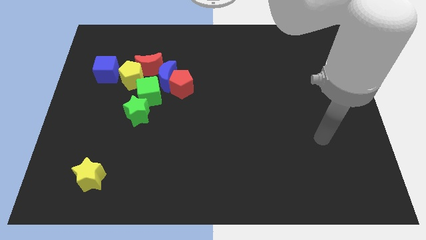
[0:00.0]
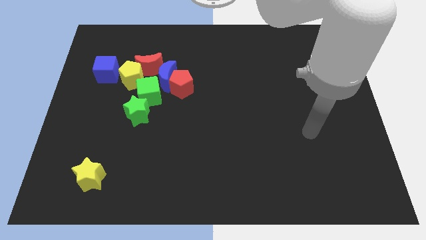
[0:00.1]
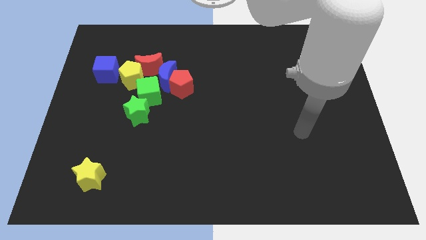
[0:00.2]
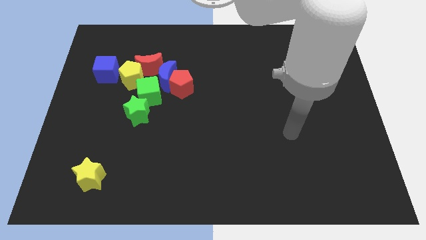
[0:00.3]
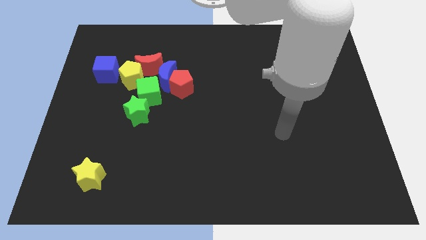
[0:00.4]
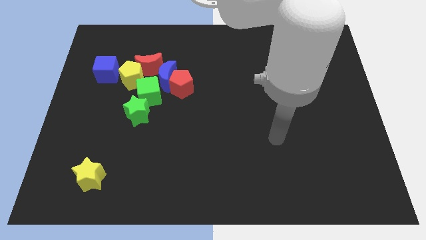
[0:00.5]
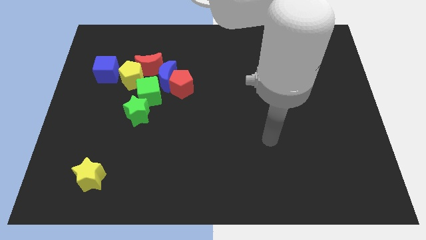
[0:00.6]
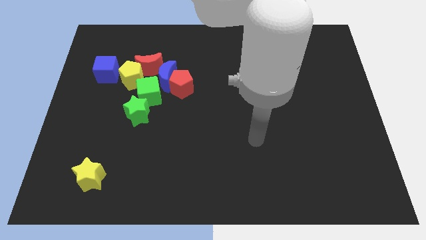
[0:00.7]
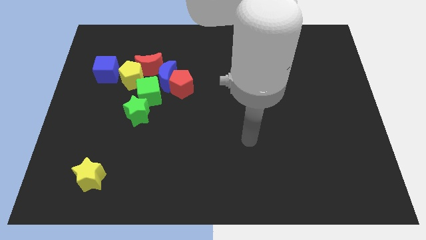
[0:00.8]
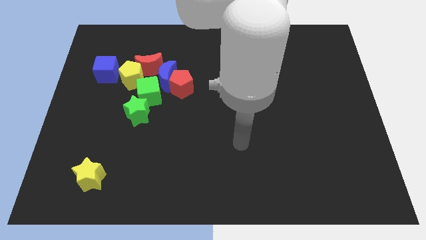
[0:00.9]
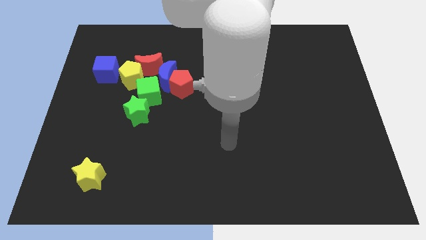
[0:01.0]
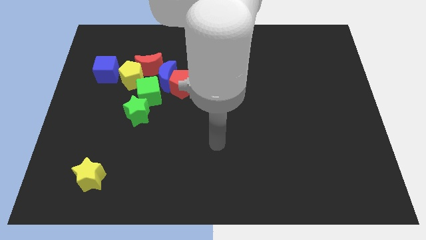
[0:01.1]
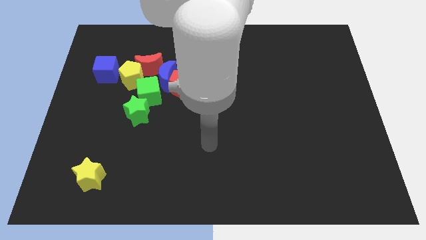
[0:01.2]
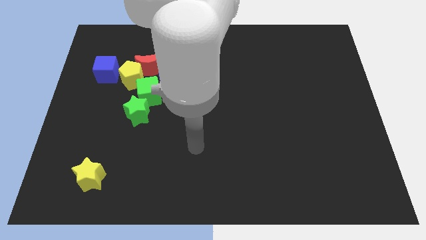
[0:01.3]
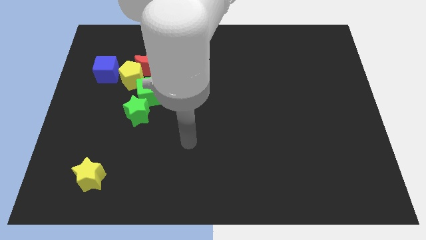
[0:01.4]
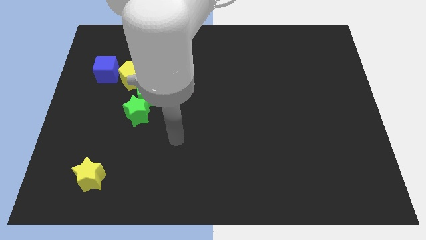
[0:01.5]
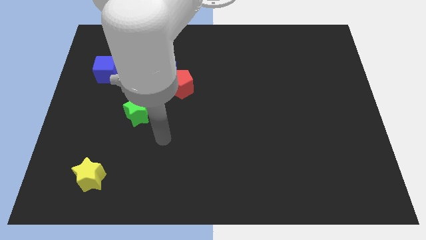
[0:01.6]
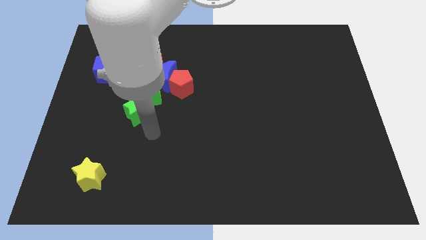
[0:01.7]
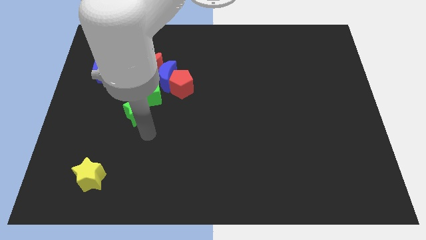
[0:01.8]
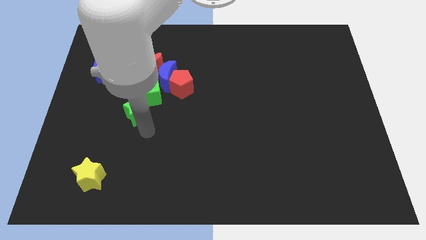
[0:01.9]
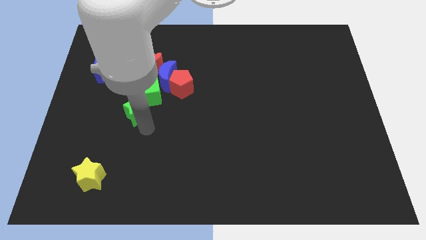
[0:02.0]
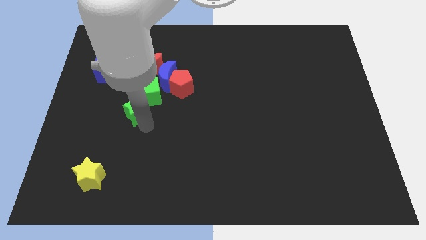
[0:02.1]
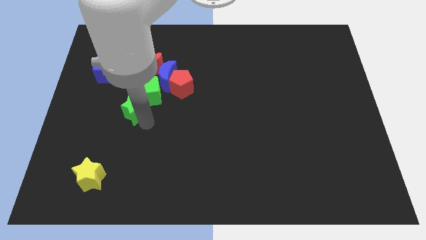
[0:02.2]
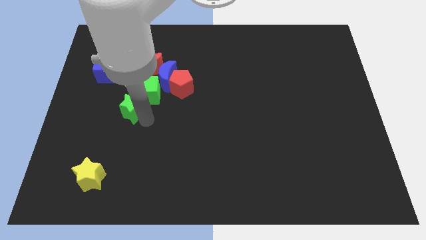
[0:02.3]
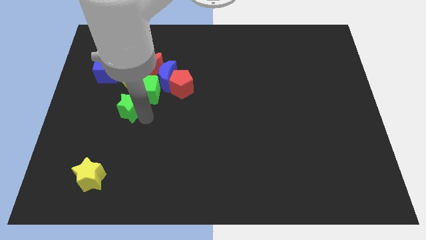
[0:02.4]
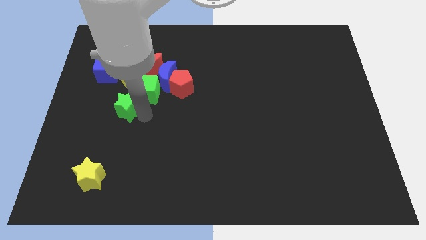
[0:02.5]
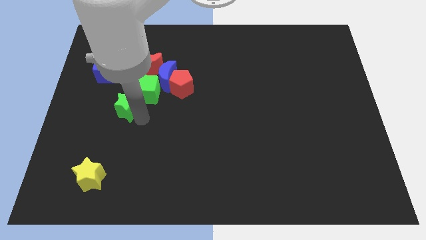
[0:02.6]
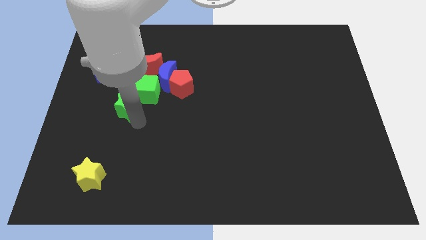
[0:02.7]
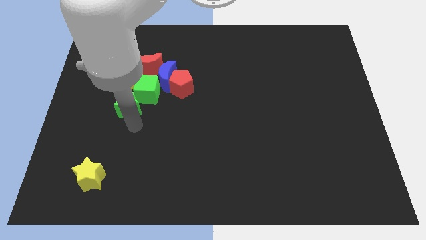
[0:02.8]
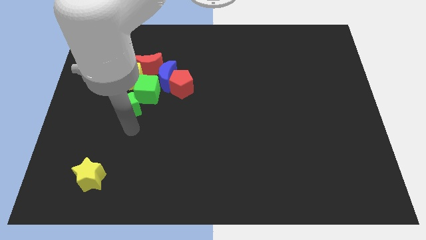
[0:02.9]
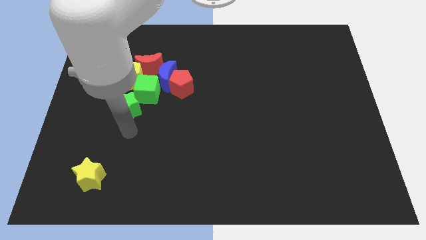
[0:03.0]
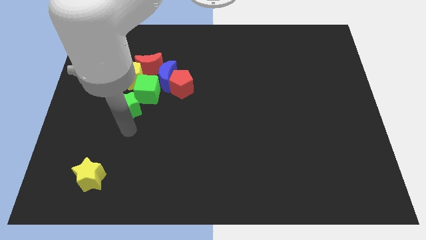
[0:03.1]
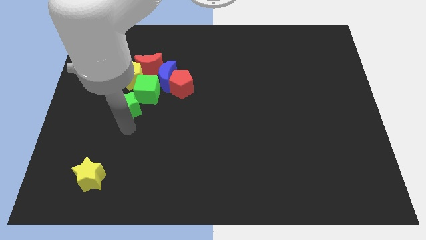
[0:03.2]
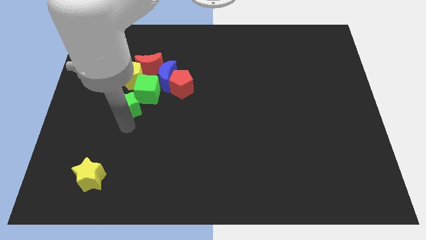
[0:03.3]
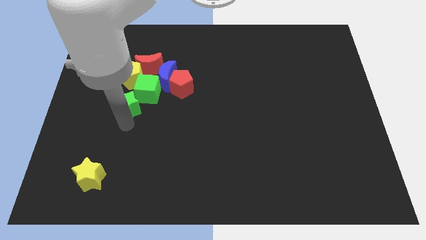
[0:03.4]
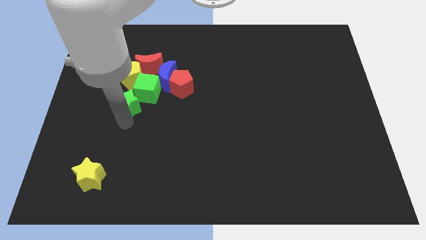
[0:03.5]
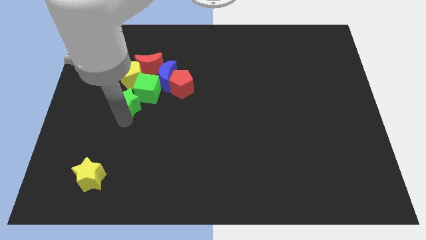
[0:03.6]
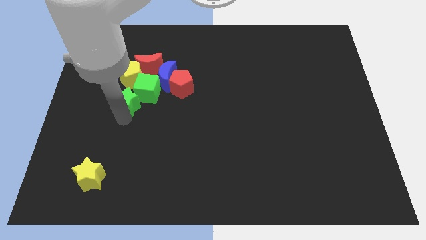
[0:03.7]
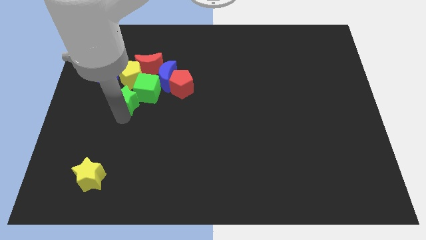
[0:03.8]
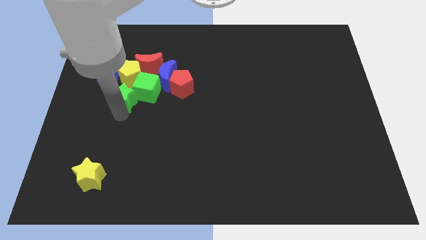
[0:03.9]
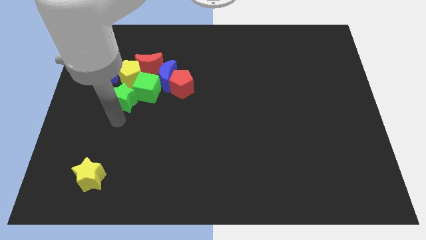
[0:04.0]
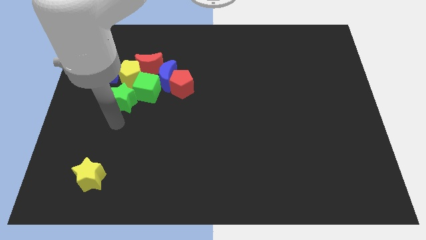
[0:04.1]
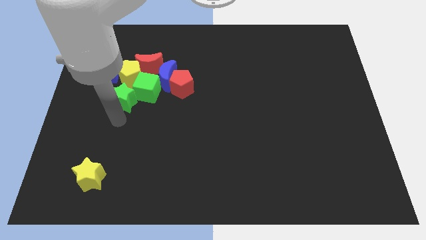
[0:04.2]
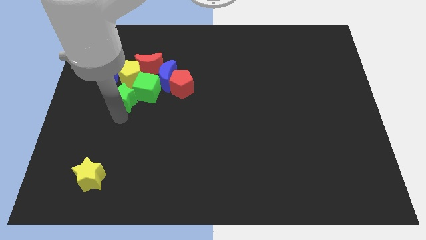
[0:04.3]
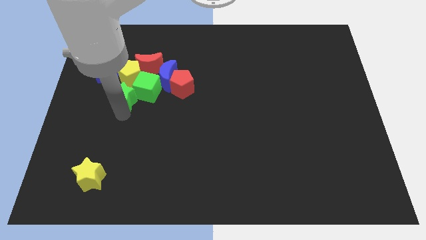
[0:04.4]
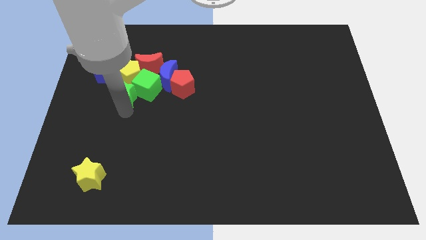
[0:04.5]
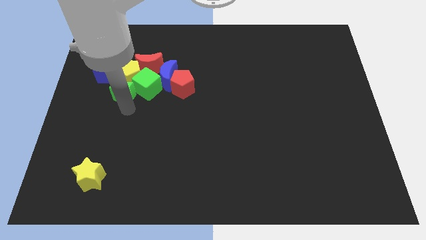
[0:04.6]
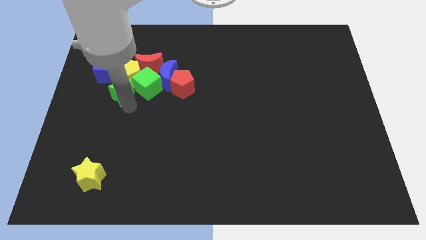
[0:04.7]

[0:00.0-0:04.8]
move the green star next to the yellow pentagon

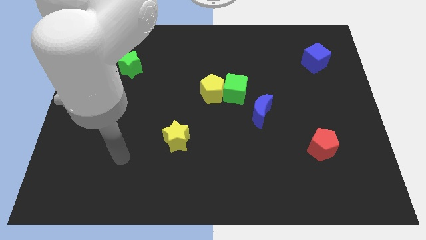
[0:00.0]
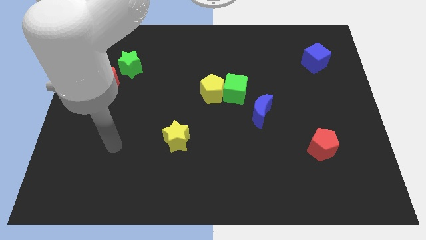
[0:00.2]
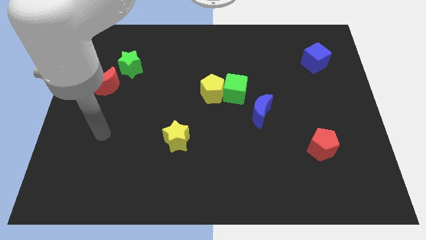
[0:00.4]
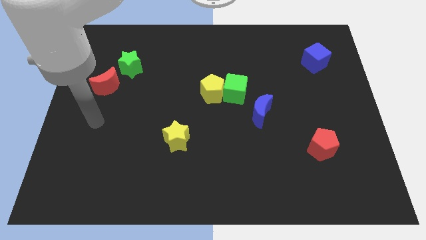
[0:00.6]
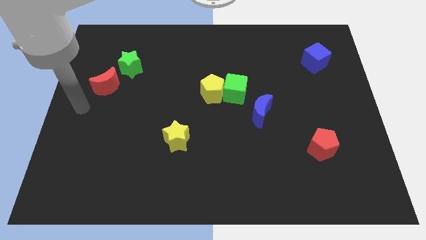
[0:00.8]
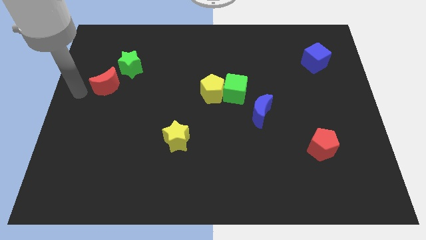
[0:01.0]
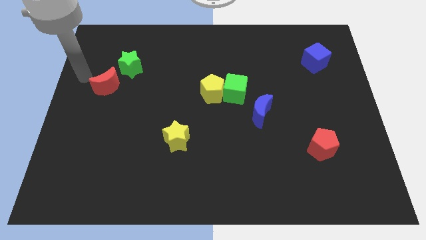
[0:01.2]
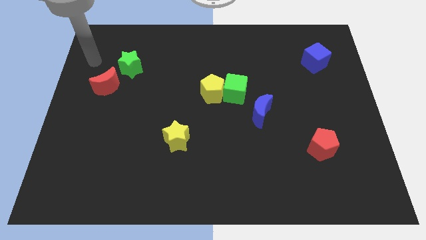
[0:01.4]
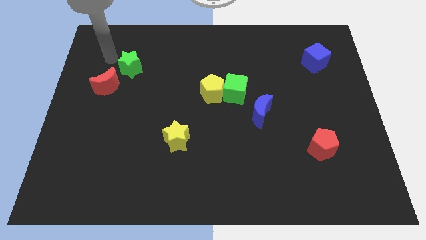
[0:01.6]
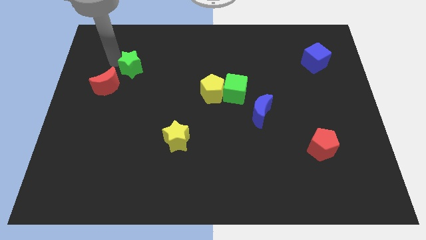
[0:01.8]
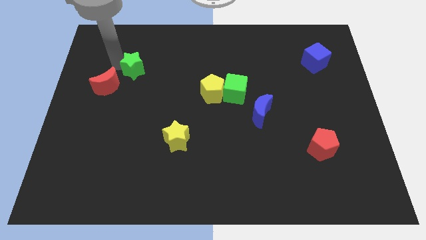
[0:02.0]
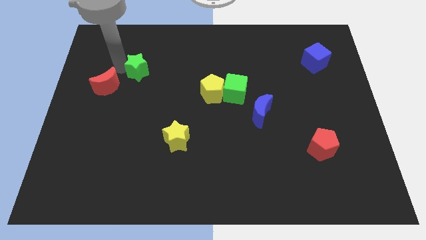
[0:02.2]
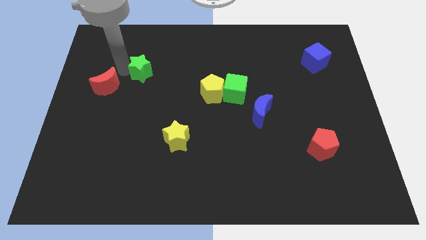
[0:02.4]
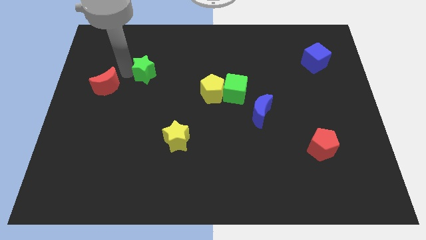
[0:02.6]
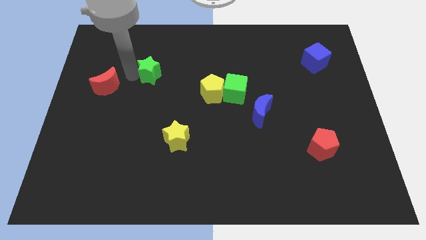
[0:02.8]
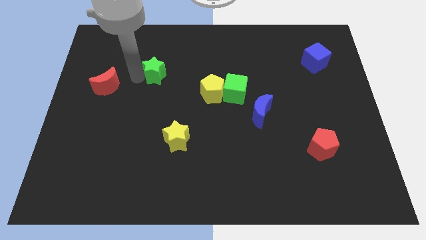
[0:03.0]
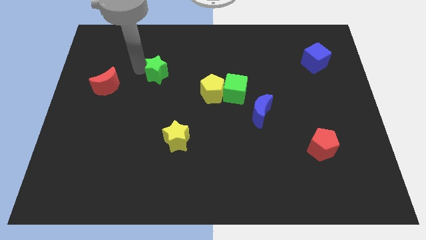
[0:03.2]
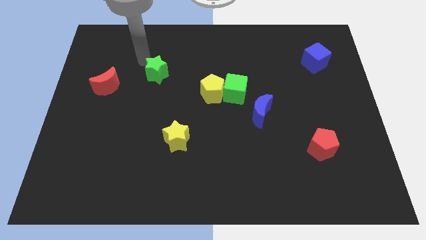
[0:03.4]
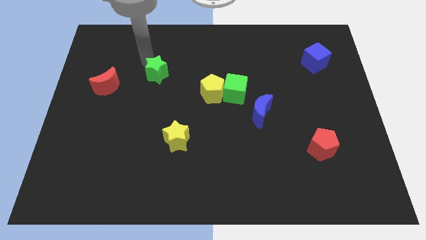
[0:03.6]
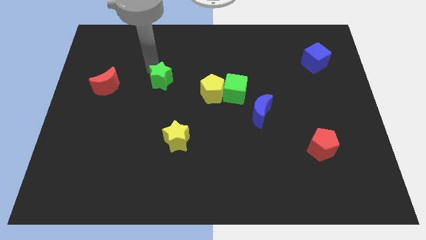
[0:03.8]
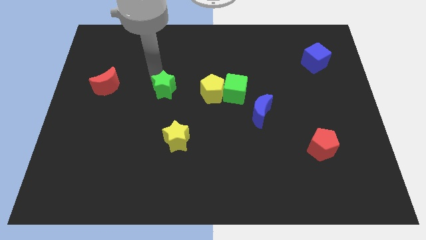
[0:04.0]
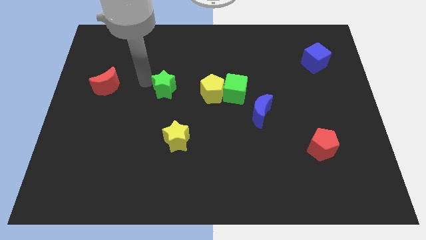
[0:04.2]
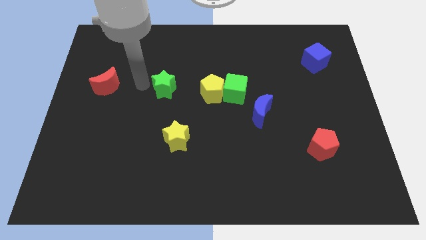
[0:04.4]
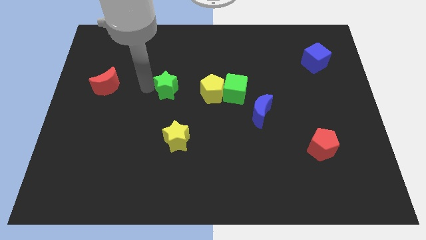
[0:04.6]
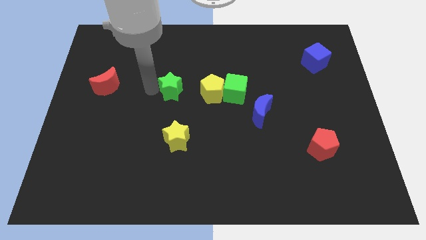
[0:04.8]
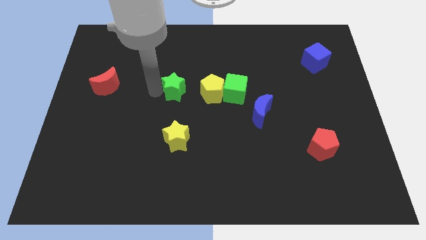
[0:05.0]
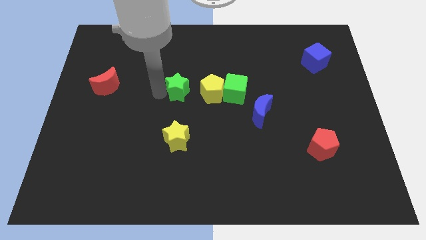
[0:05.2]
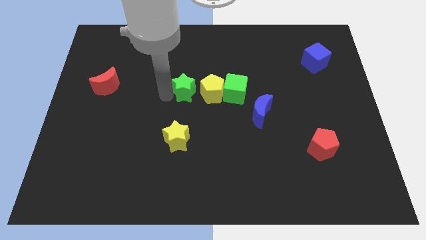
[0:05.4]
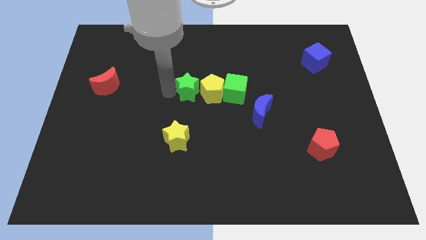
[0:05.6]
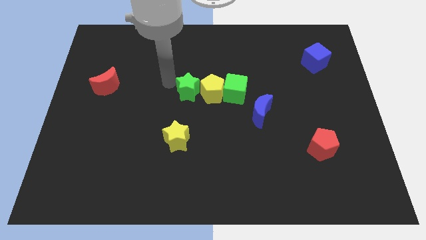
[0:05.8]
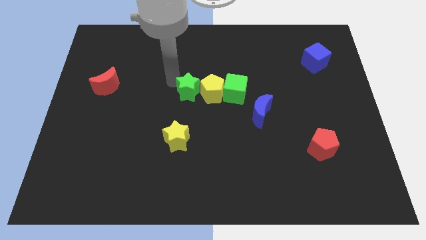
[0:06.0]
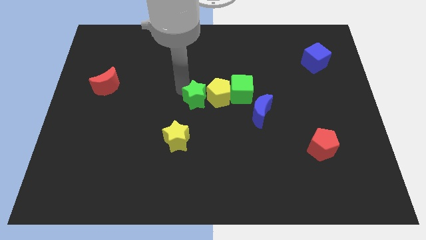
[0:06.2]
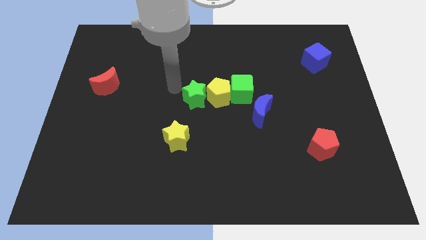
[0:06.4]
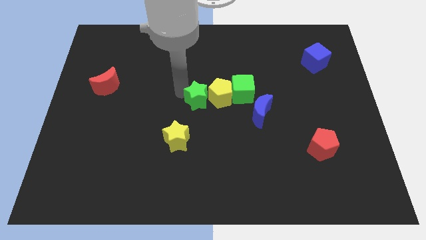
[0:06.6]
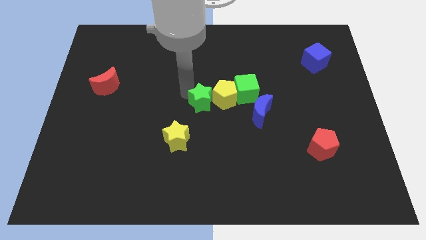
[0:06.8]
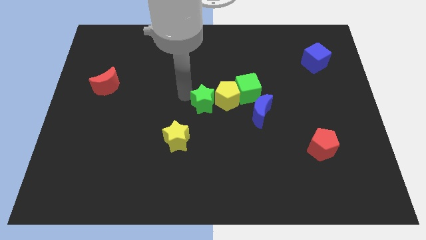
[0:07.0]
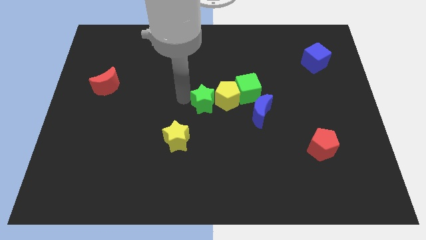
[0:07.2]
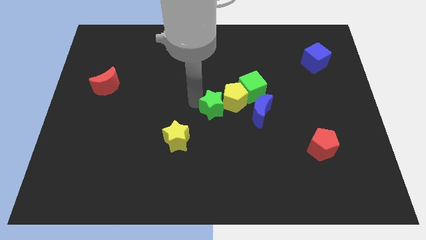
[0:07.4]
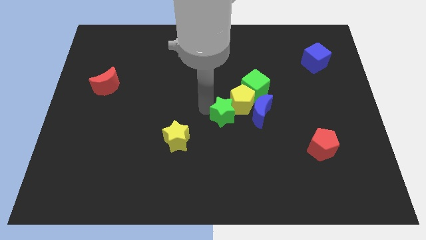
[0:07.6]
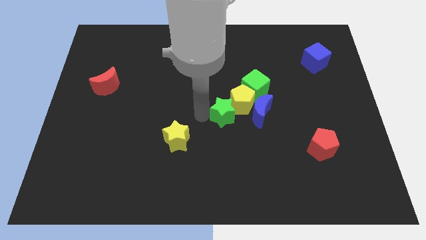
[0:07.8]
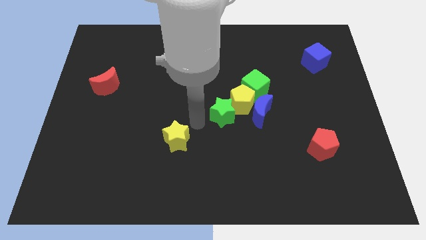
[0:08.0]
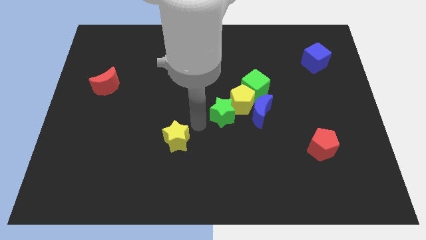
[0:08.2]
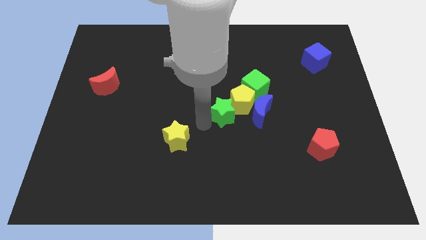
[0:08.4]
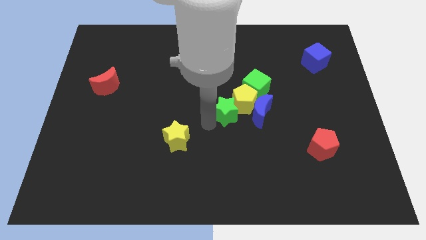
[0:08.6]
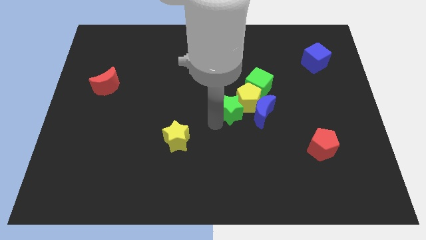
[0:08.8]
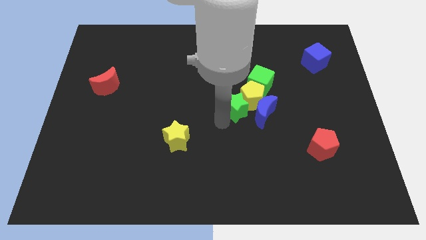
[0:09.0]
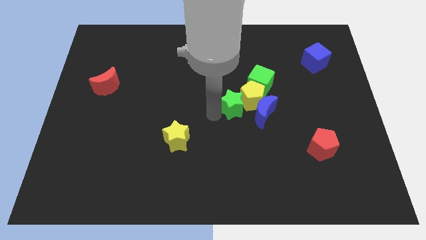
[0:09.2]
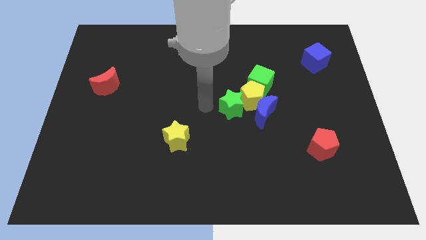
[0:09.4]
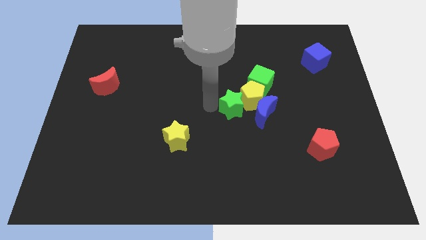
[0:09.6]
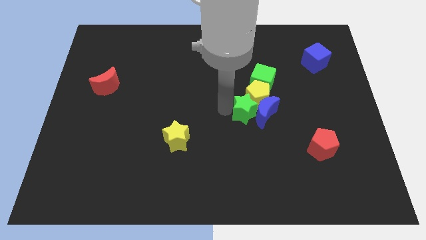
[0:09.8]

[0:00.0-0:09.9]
slide the green star close to the blue moon
